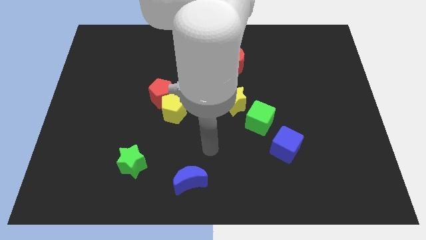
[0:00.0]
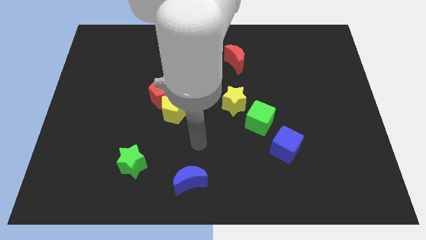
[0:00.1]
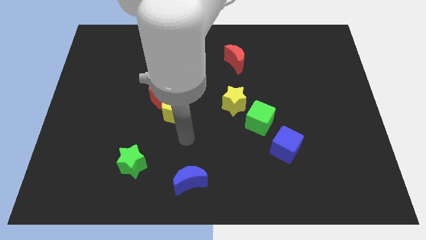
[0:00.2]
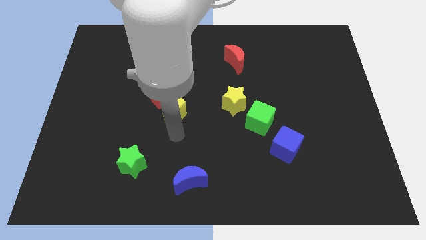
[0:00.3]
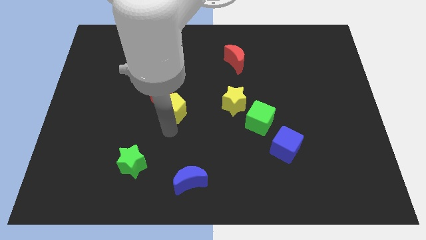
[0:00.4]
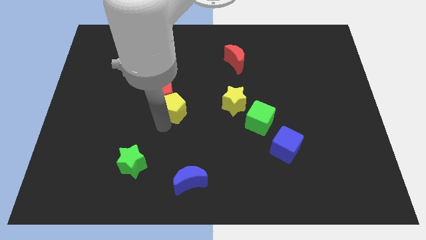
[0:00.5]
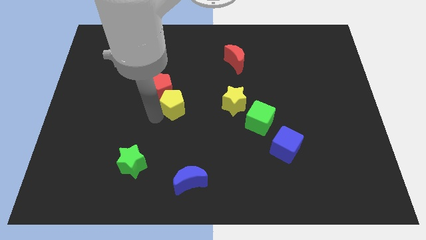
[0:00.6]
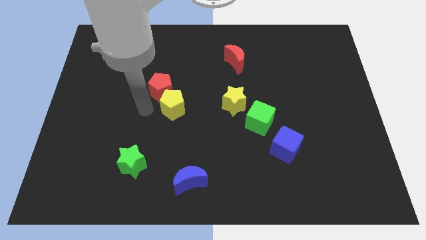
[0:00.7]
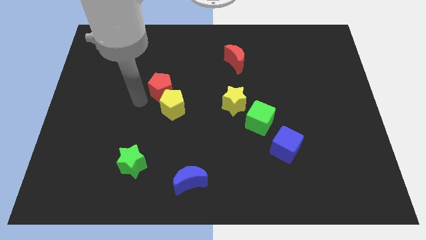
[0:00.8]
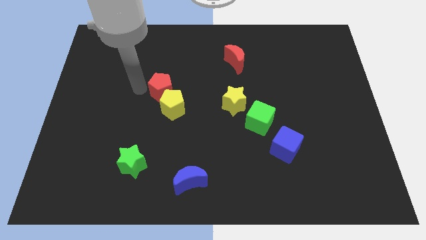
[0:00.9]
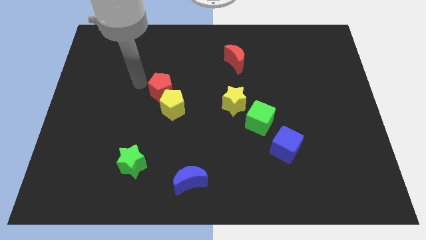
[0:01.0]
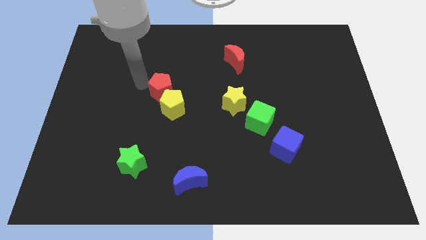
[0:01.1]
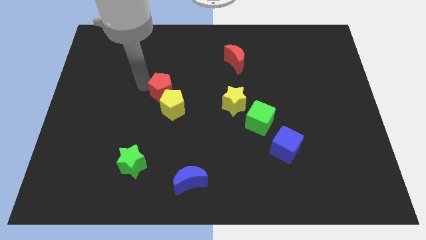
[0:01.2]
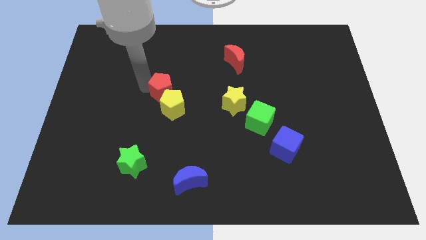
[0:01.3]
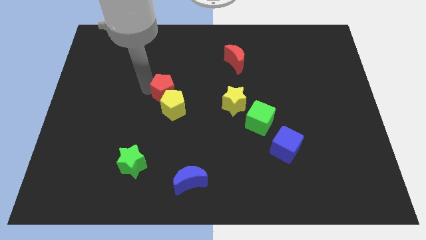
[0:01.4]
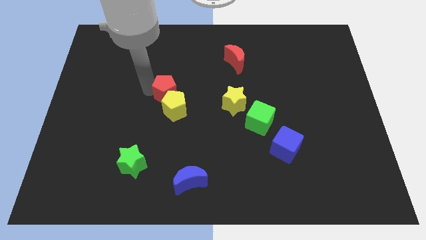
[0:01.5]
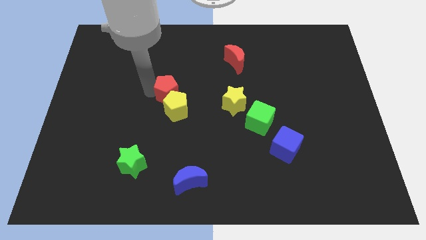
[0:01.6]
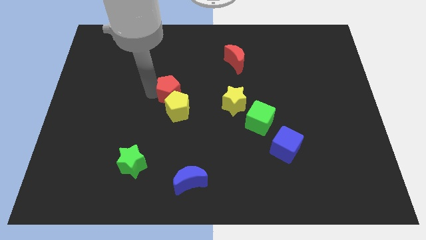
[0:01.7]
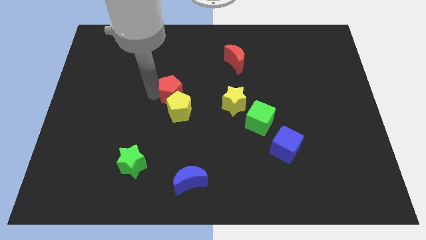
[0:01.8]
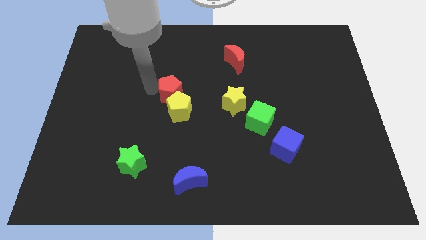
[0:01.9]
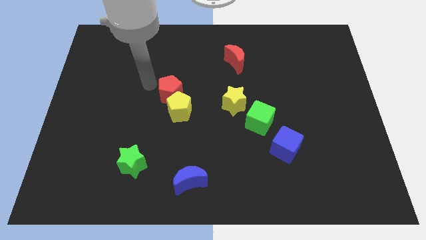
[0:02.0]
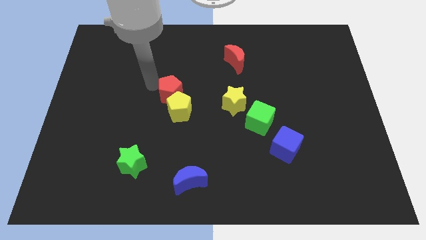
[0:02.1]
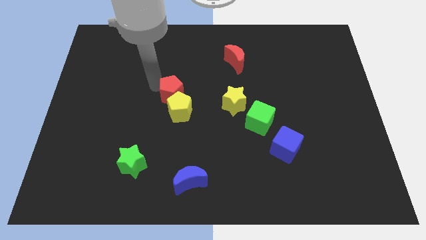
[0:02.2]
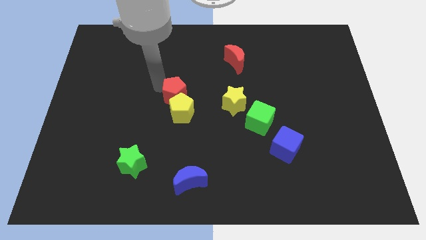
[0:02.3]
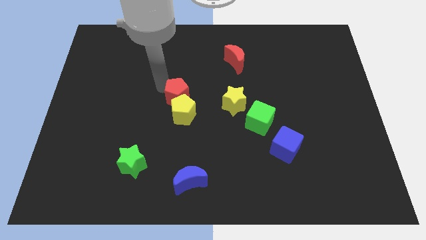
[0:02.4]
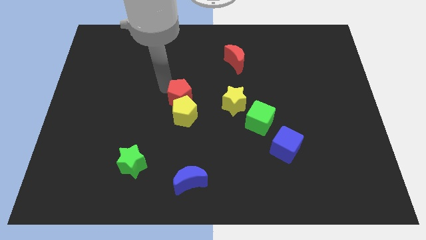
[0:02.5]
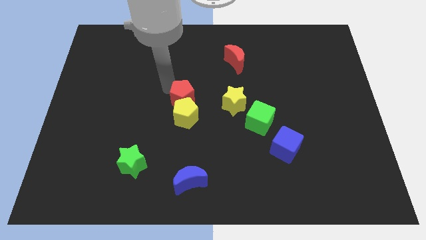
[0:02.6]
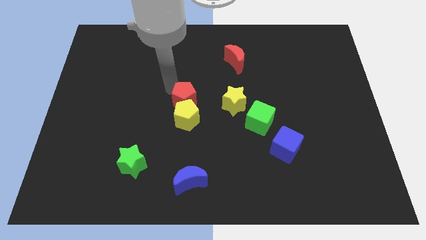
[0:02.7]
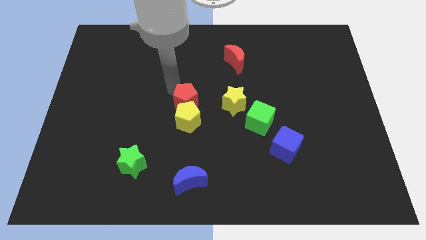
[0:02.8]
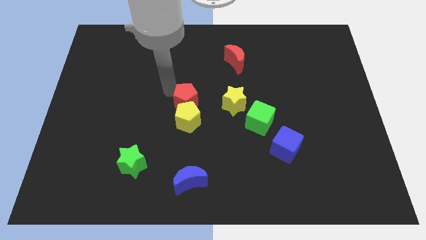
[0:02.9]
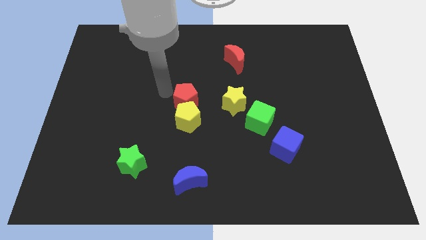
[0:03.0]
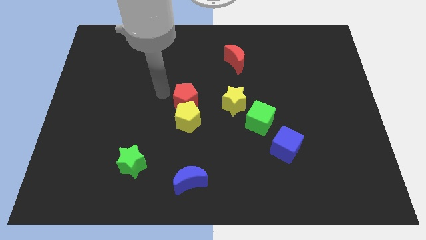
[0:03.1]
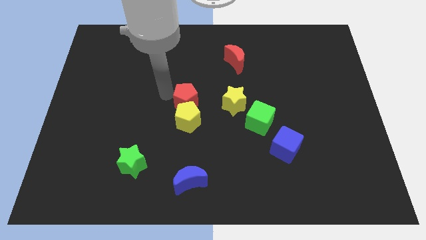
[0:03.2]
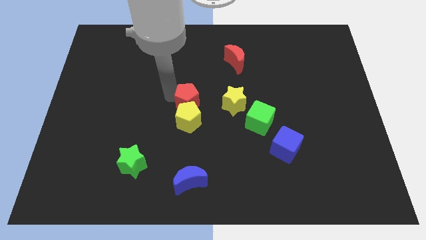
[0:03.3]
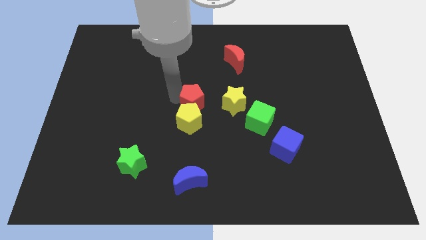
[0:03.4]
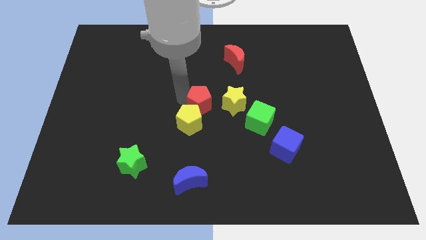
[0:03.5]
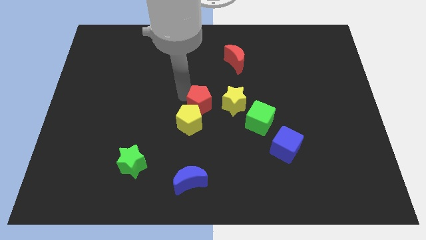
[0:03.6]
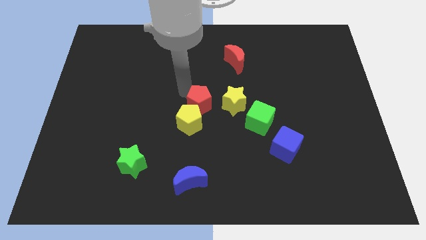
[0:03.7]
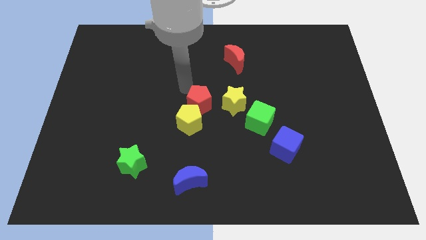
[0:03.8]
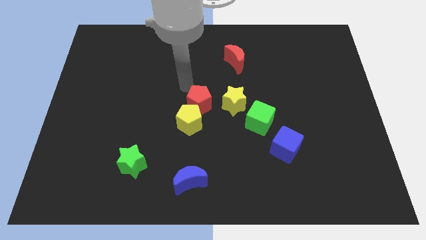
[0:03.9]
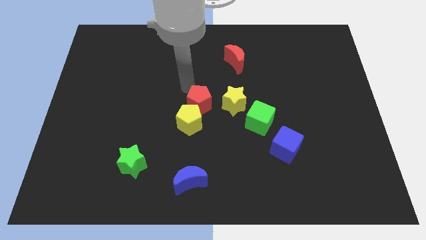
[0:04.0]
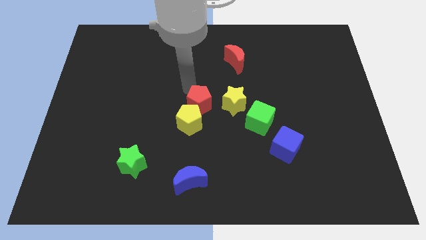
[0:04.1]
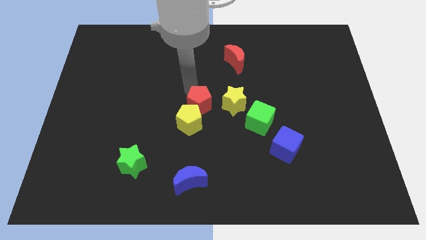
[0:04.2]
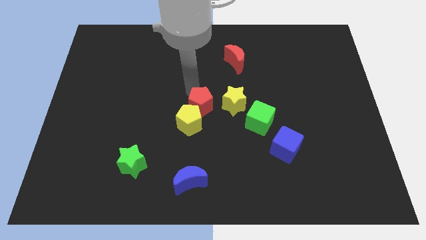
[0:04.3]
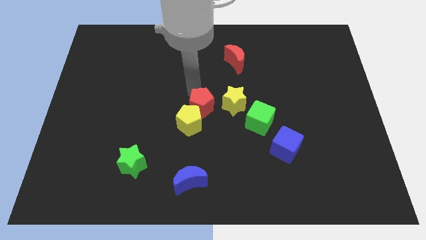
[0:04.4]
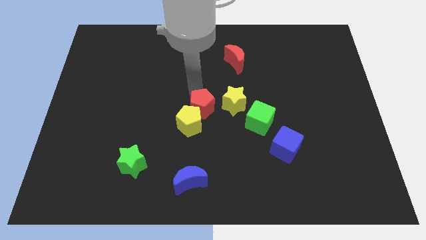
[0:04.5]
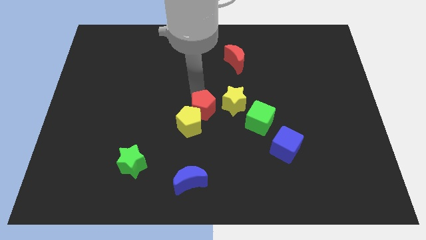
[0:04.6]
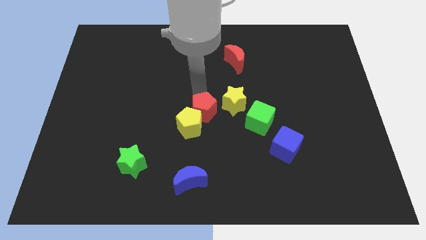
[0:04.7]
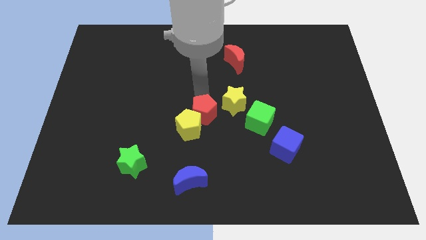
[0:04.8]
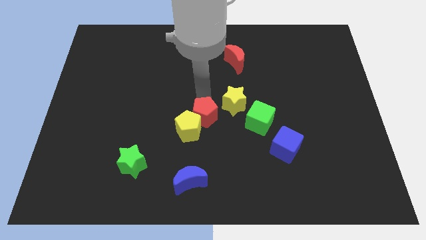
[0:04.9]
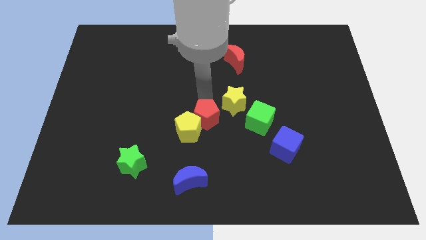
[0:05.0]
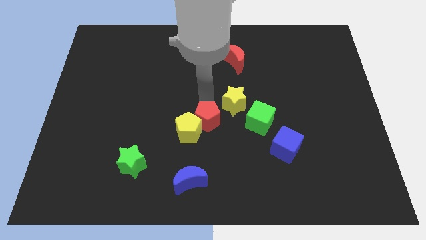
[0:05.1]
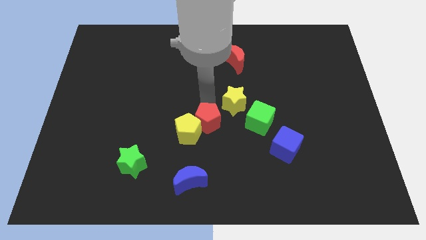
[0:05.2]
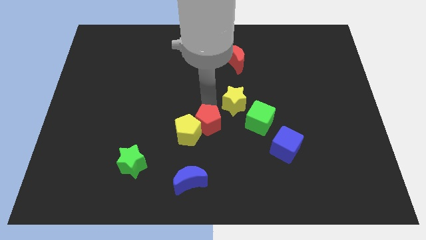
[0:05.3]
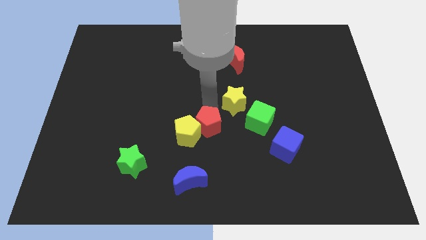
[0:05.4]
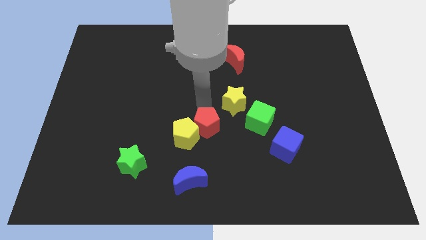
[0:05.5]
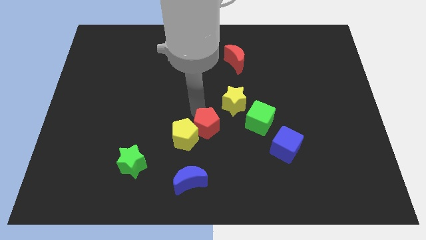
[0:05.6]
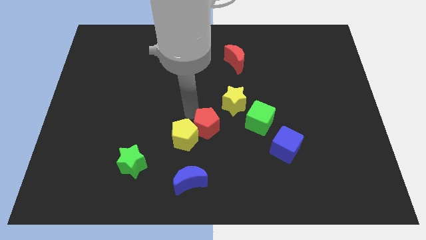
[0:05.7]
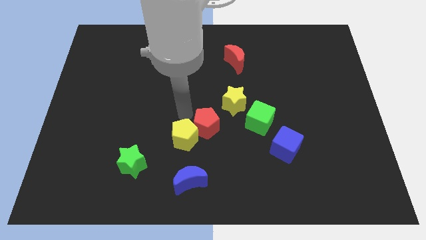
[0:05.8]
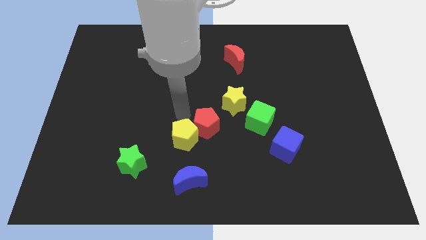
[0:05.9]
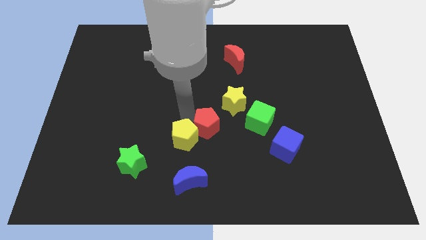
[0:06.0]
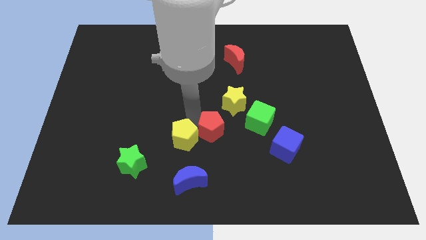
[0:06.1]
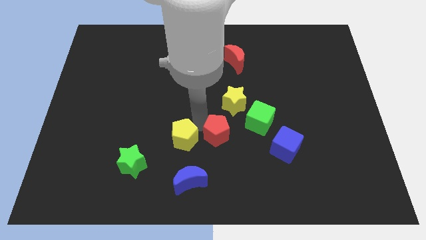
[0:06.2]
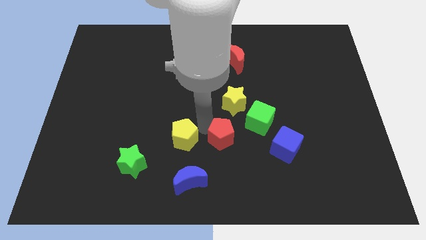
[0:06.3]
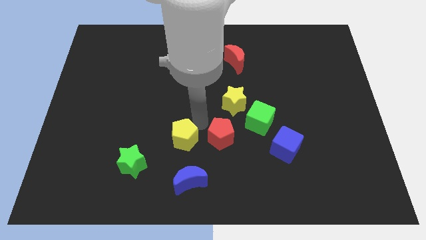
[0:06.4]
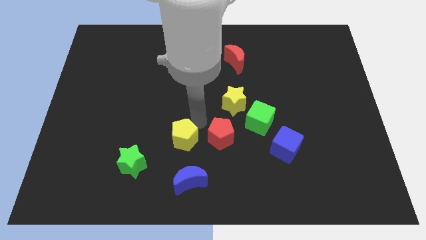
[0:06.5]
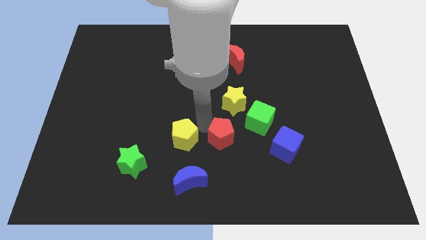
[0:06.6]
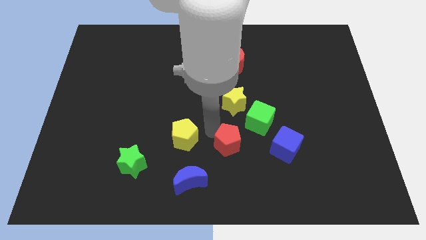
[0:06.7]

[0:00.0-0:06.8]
slide the red pentagon downwards and then right

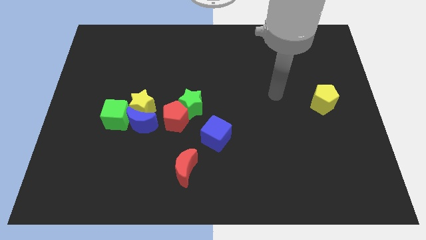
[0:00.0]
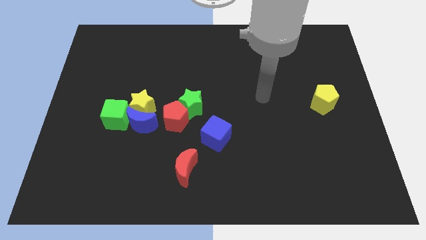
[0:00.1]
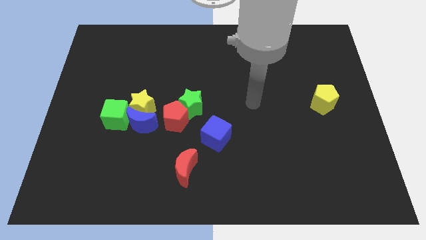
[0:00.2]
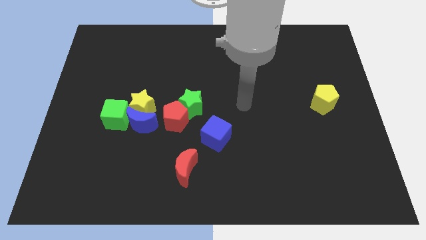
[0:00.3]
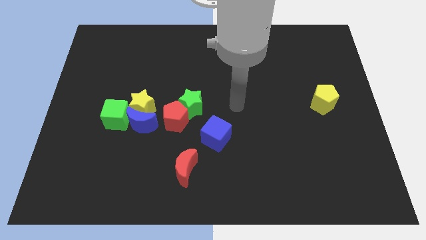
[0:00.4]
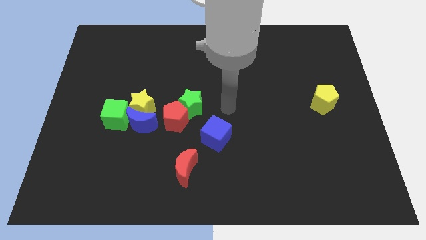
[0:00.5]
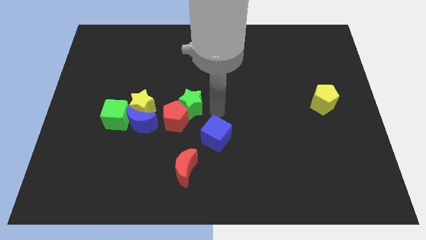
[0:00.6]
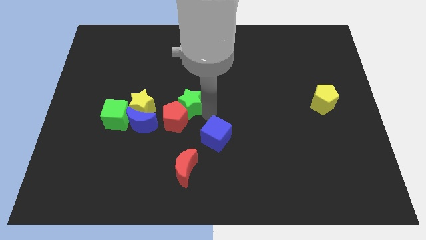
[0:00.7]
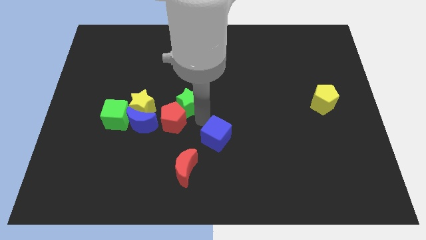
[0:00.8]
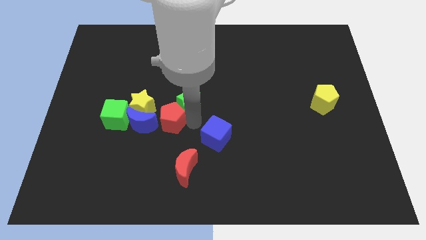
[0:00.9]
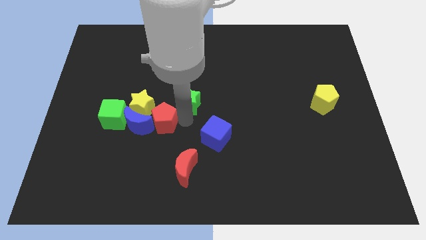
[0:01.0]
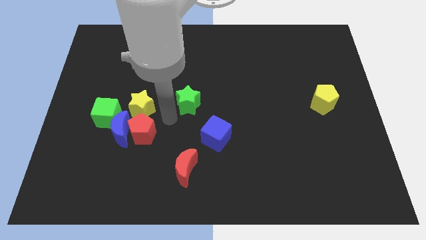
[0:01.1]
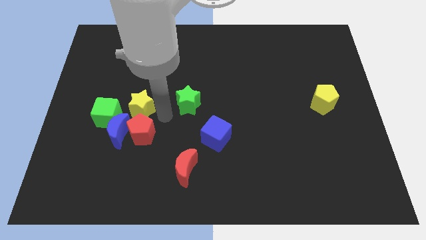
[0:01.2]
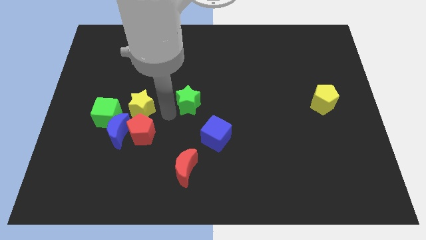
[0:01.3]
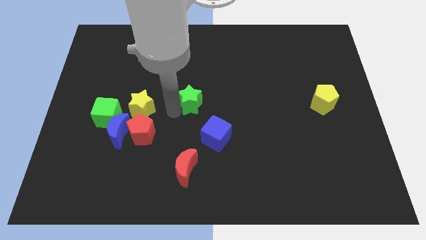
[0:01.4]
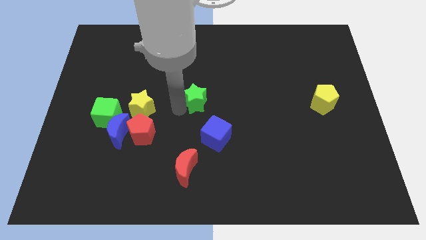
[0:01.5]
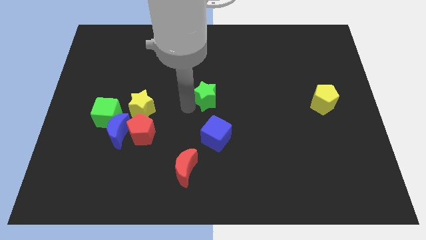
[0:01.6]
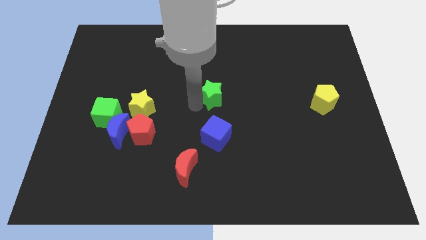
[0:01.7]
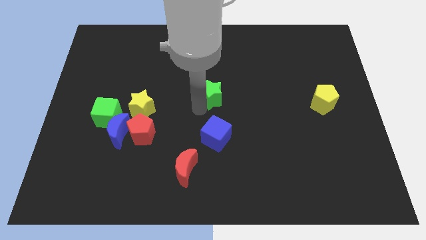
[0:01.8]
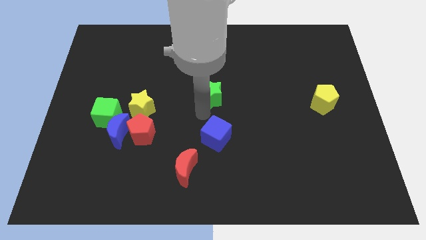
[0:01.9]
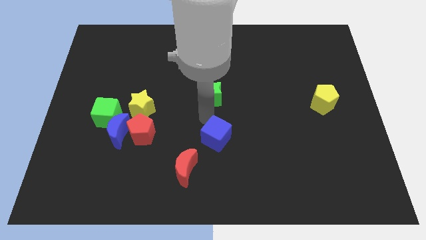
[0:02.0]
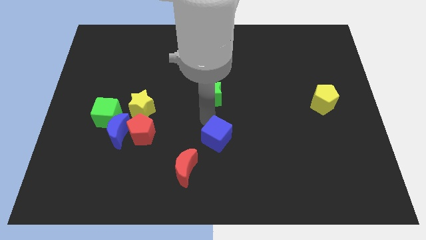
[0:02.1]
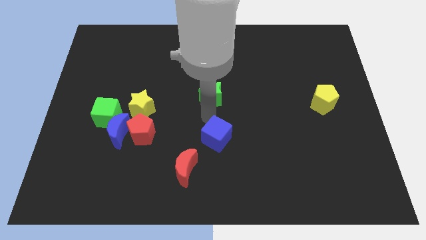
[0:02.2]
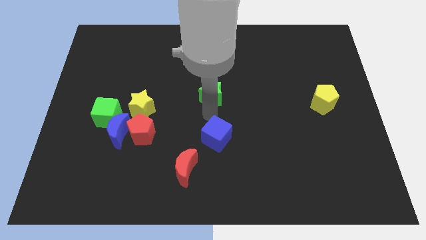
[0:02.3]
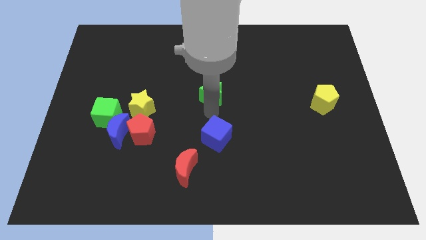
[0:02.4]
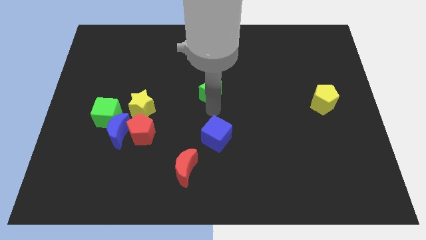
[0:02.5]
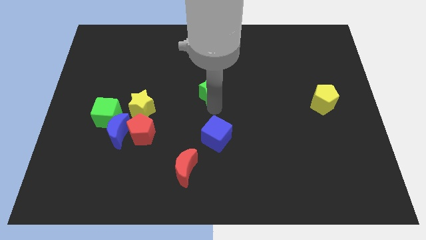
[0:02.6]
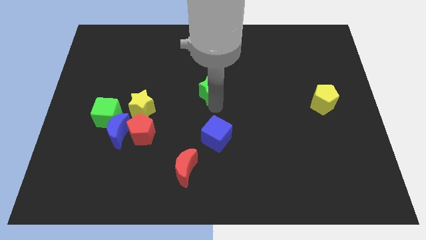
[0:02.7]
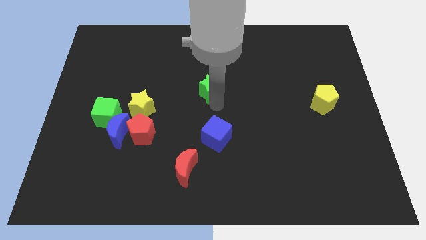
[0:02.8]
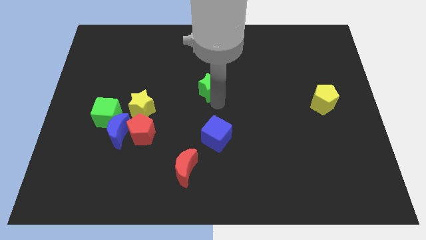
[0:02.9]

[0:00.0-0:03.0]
push the green star a bit up and right diagonally
